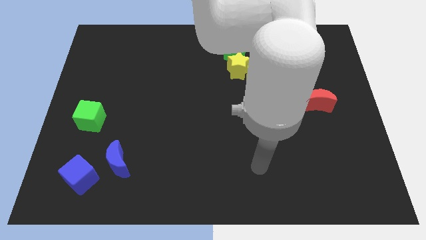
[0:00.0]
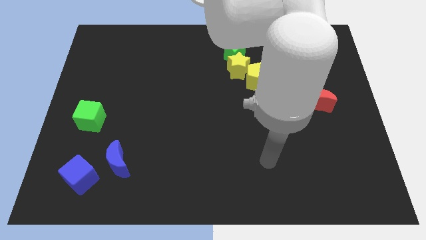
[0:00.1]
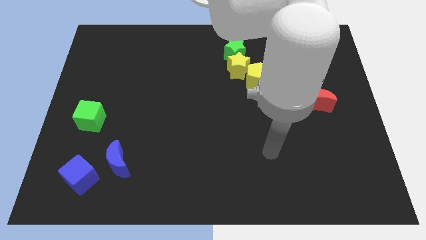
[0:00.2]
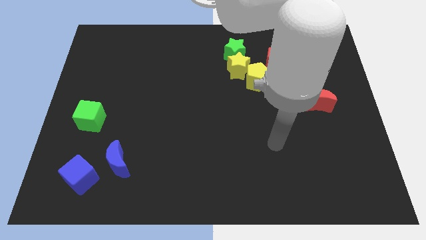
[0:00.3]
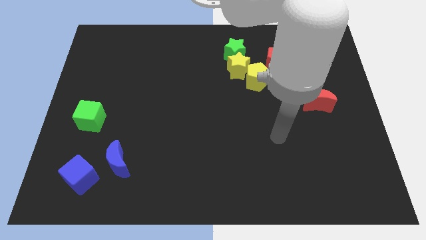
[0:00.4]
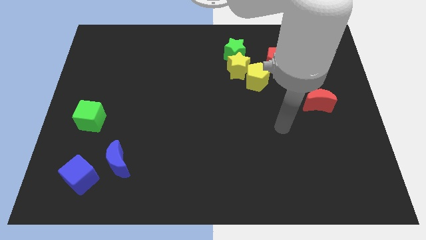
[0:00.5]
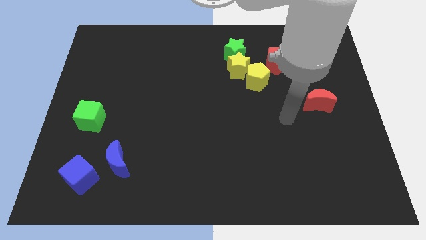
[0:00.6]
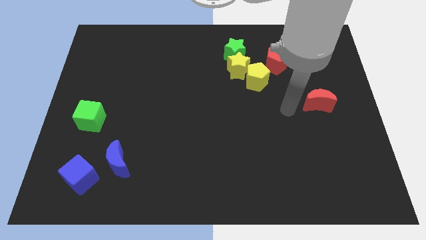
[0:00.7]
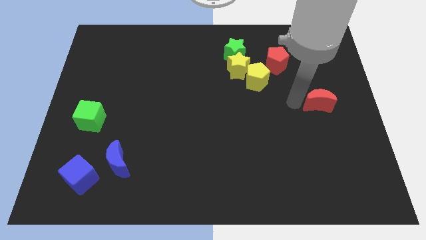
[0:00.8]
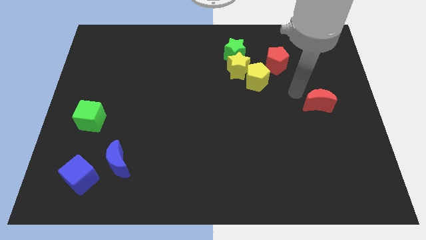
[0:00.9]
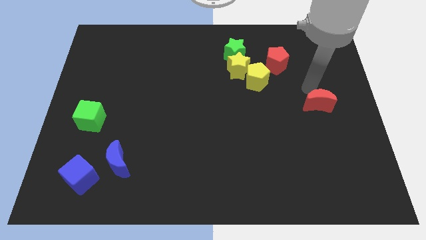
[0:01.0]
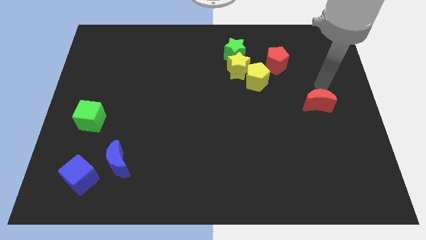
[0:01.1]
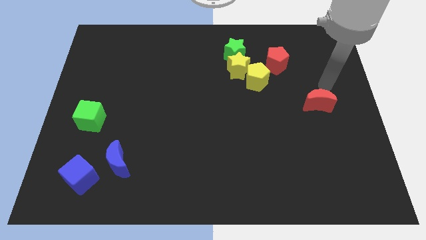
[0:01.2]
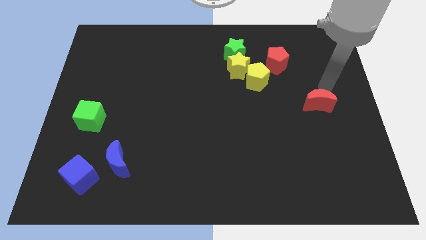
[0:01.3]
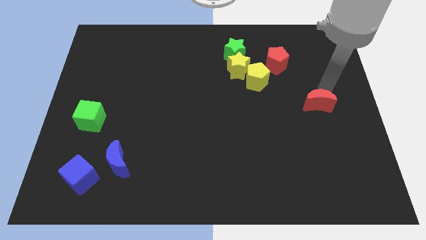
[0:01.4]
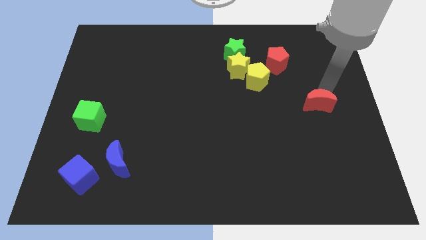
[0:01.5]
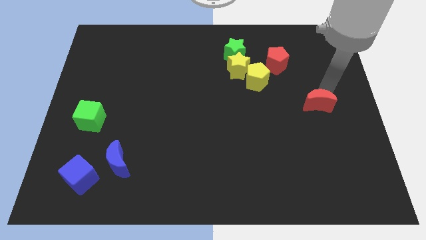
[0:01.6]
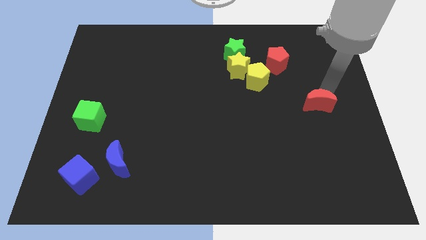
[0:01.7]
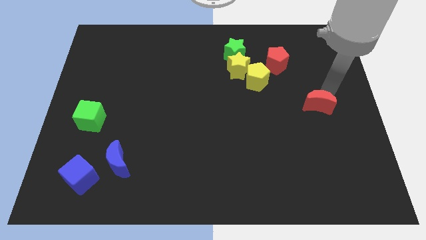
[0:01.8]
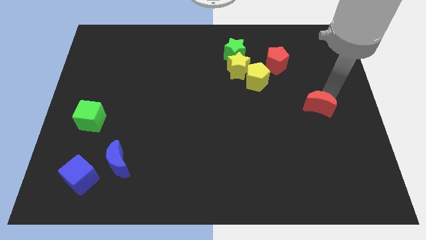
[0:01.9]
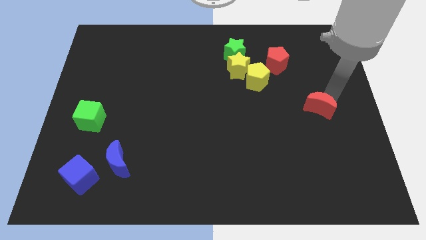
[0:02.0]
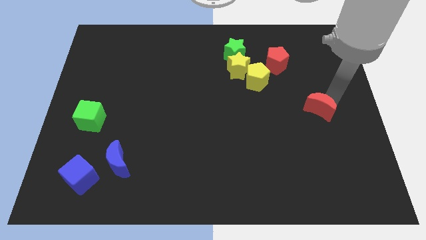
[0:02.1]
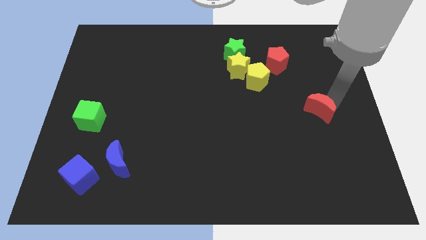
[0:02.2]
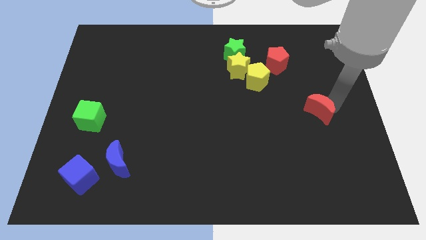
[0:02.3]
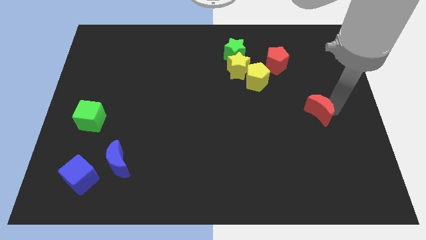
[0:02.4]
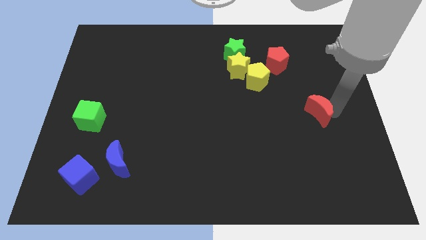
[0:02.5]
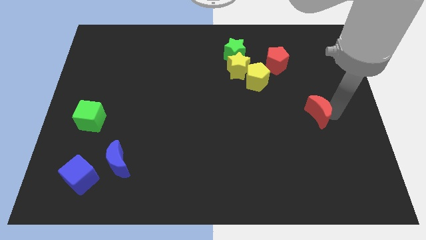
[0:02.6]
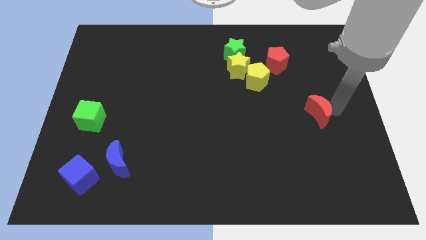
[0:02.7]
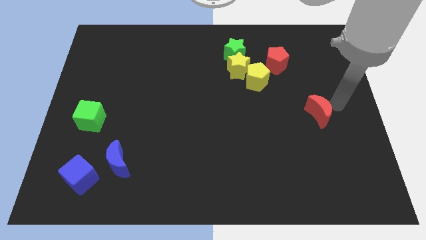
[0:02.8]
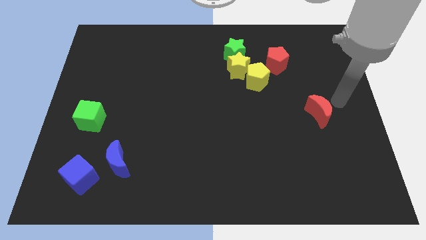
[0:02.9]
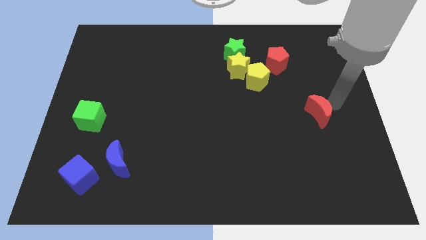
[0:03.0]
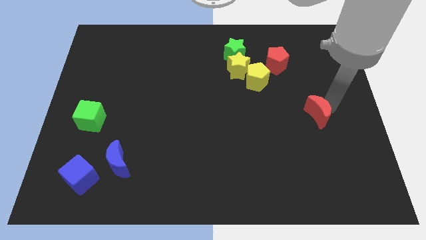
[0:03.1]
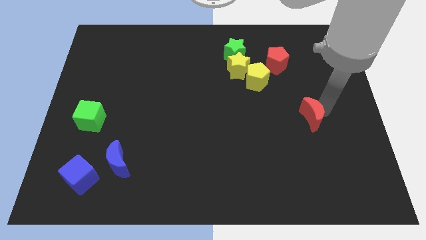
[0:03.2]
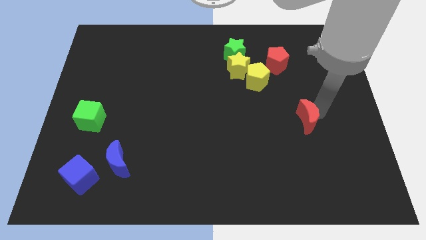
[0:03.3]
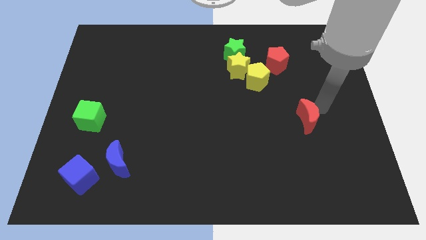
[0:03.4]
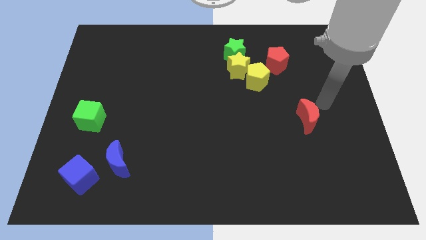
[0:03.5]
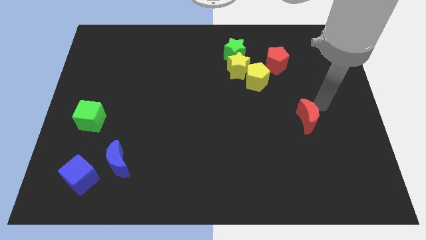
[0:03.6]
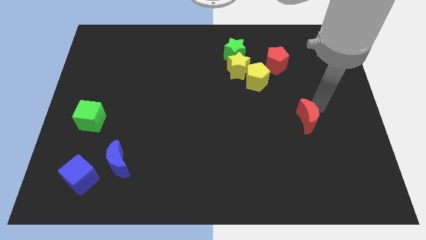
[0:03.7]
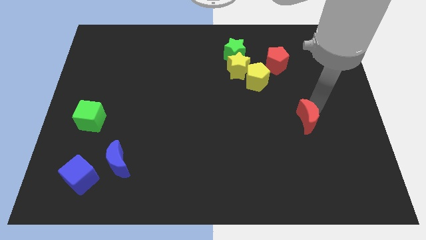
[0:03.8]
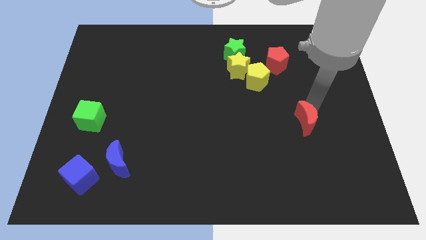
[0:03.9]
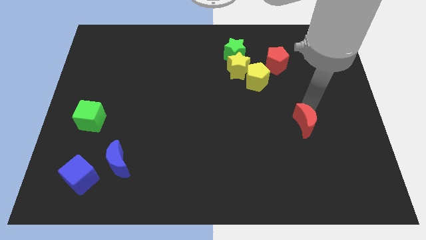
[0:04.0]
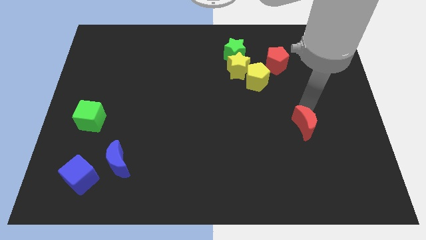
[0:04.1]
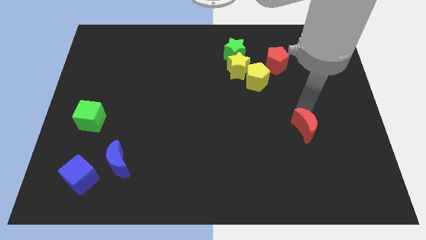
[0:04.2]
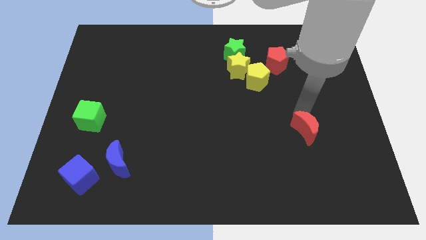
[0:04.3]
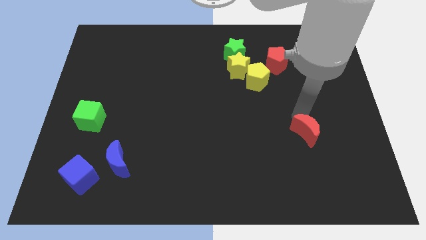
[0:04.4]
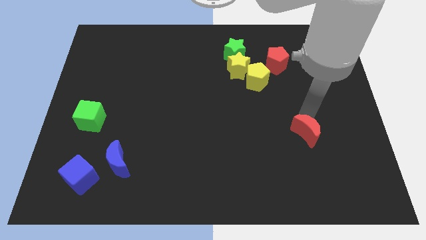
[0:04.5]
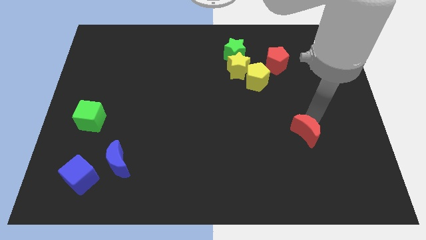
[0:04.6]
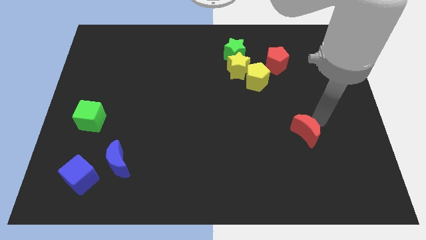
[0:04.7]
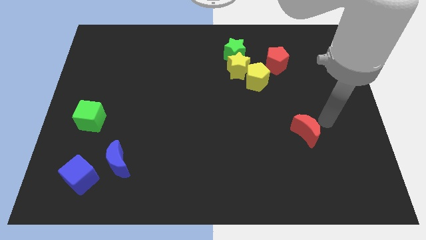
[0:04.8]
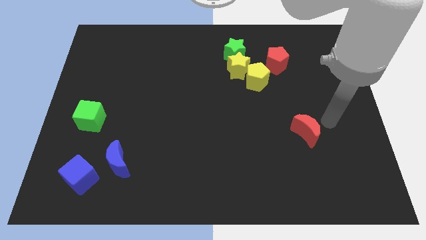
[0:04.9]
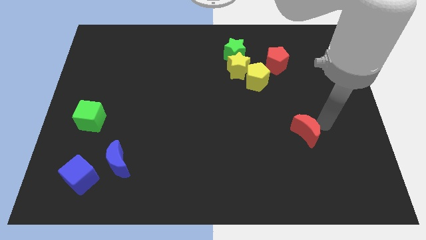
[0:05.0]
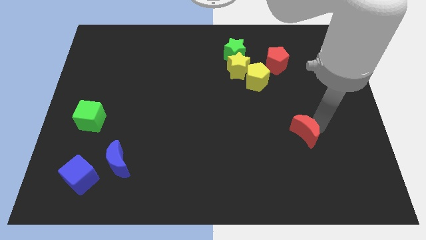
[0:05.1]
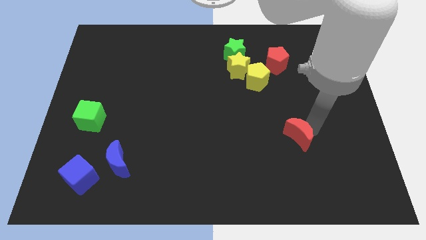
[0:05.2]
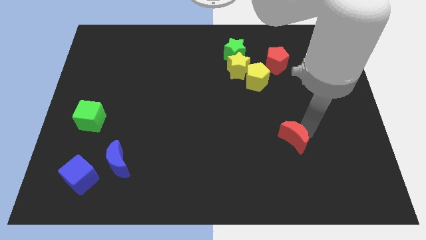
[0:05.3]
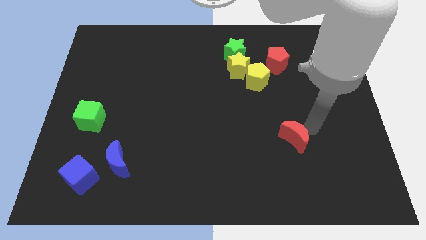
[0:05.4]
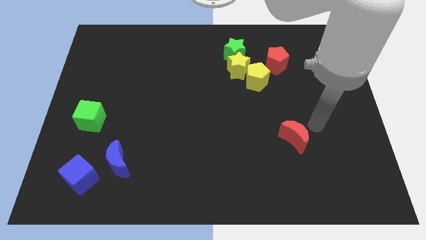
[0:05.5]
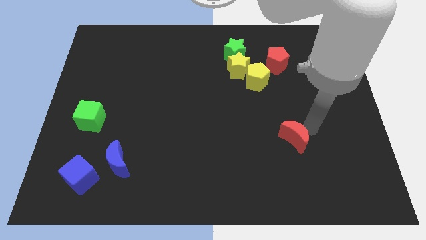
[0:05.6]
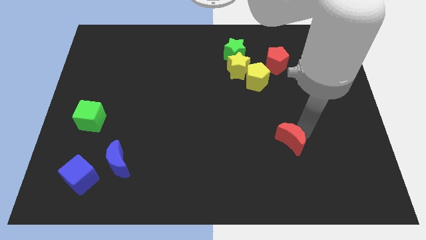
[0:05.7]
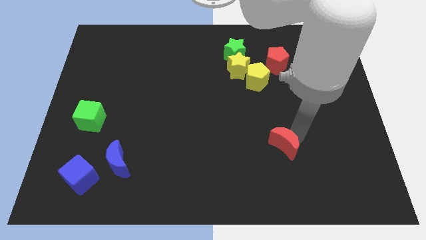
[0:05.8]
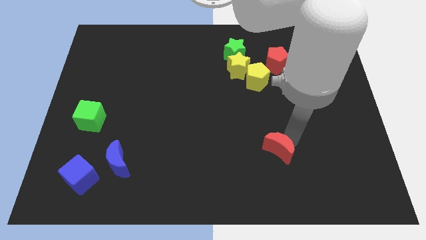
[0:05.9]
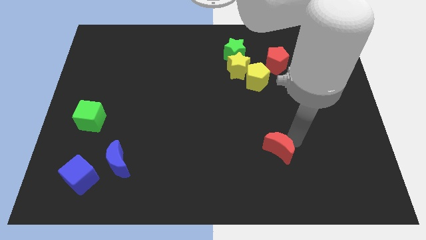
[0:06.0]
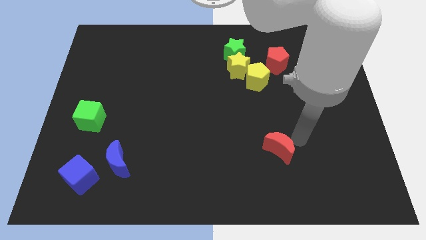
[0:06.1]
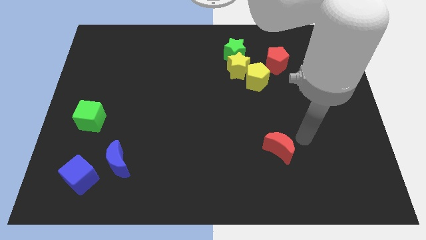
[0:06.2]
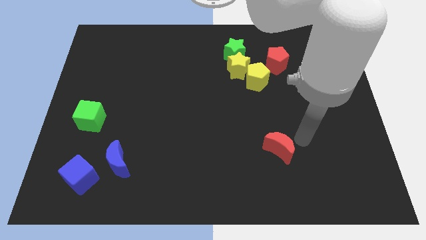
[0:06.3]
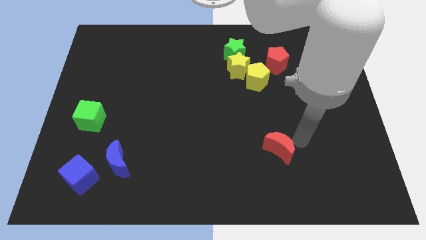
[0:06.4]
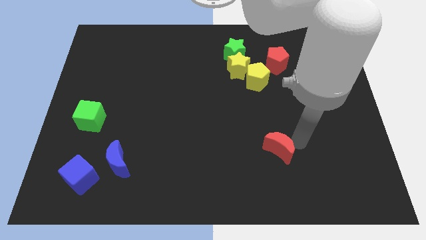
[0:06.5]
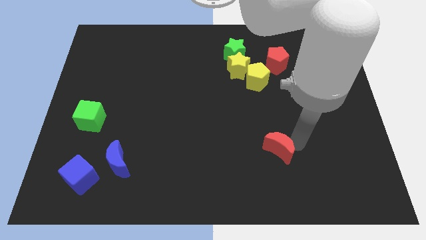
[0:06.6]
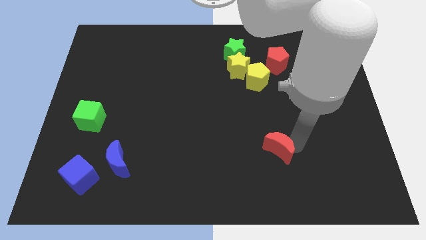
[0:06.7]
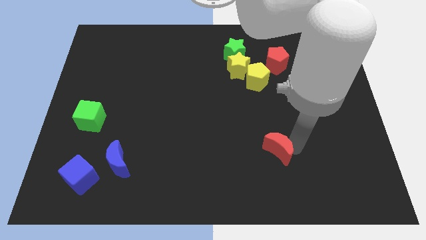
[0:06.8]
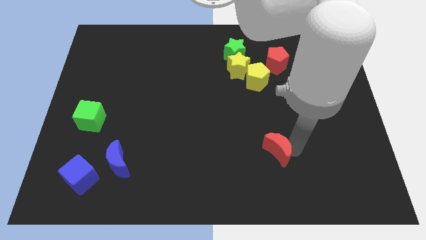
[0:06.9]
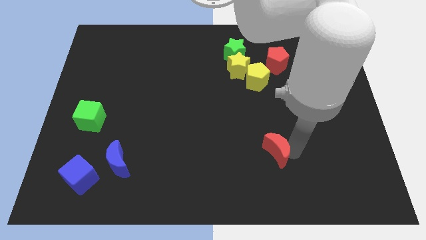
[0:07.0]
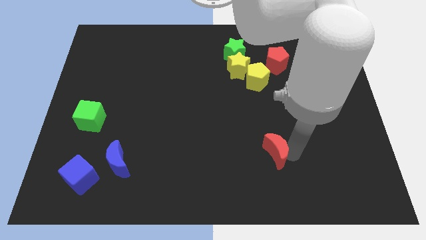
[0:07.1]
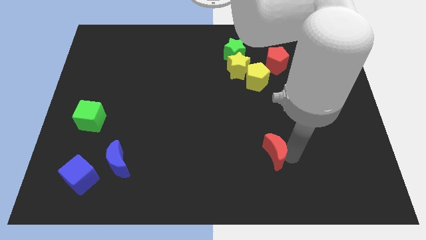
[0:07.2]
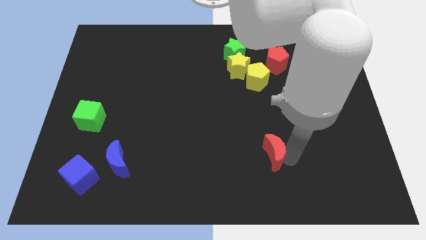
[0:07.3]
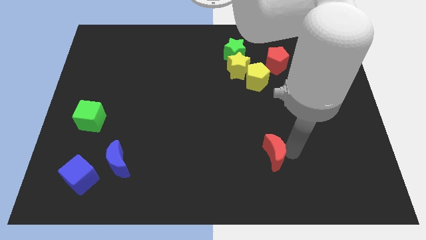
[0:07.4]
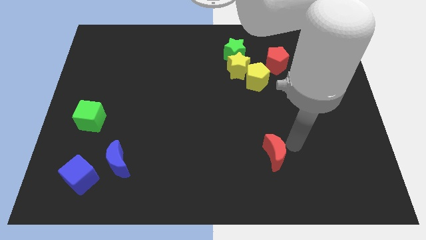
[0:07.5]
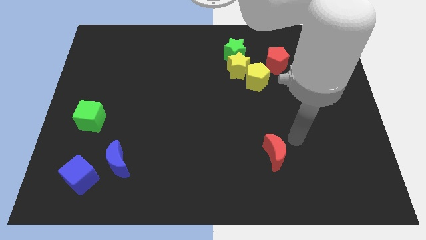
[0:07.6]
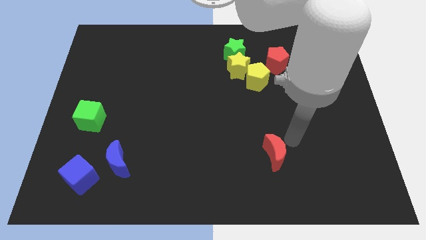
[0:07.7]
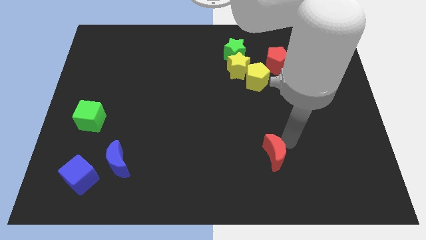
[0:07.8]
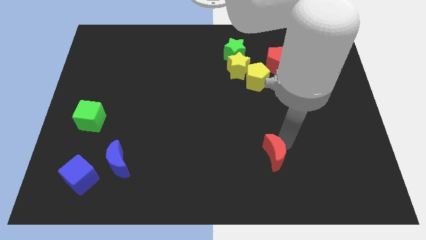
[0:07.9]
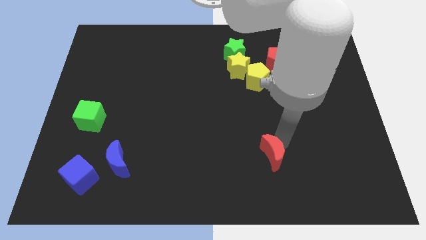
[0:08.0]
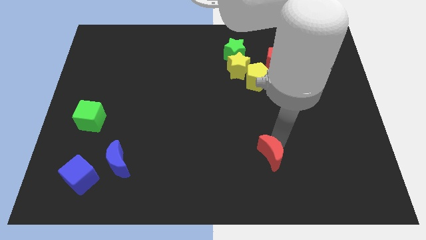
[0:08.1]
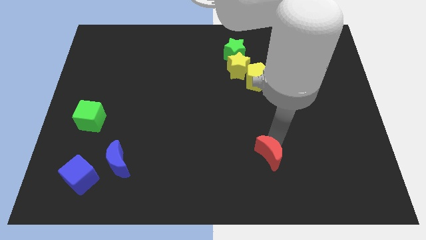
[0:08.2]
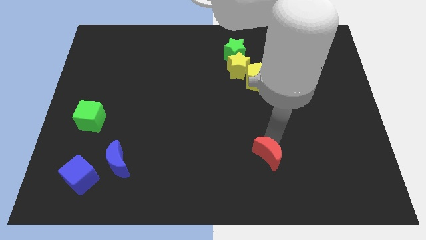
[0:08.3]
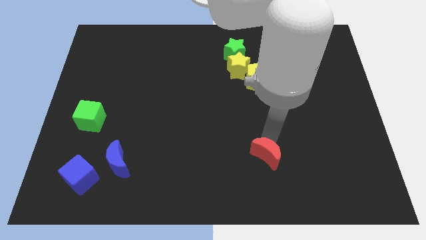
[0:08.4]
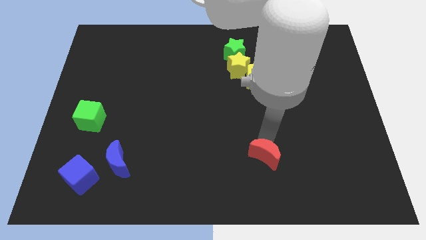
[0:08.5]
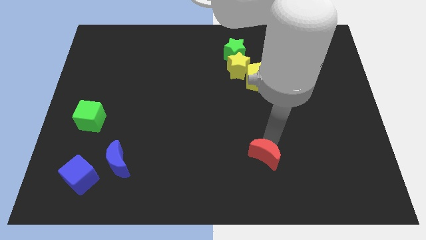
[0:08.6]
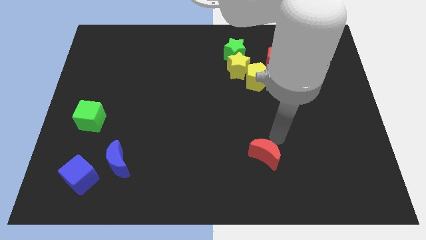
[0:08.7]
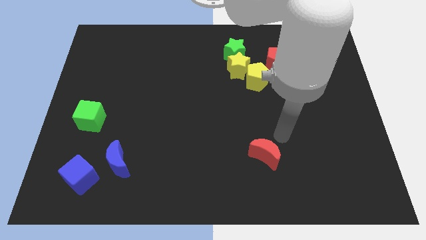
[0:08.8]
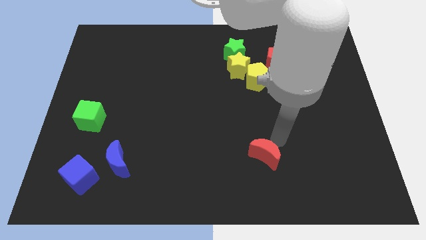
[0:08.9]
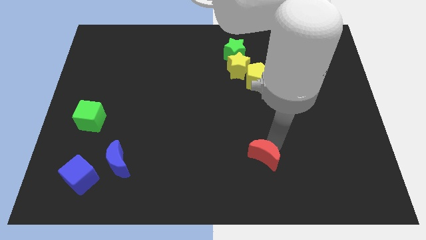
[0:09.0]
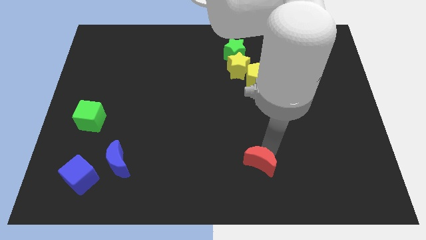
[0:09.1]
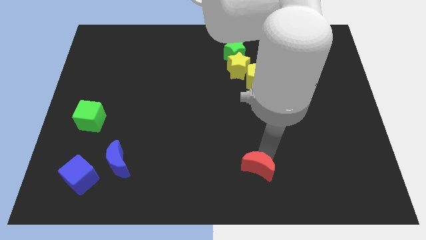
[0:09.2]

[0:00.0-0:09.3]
push the red moon to the bottom
